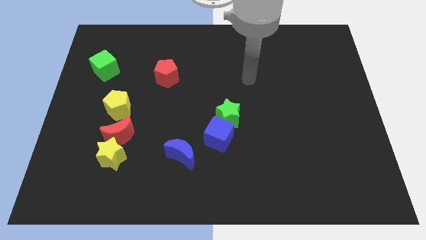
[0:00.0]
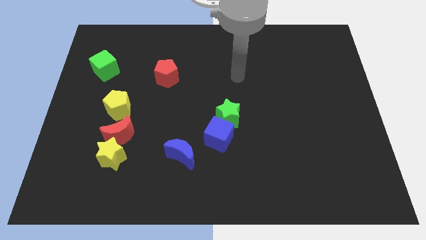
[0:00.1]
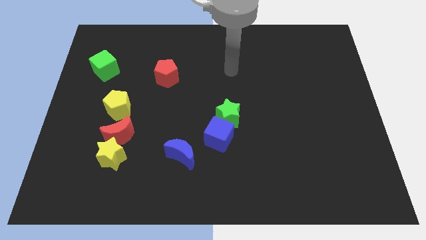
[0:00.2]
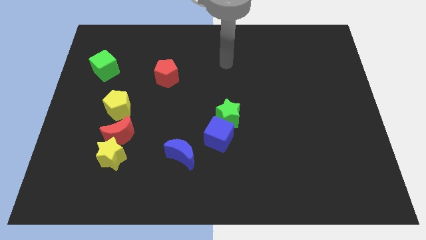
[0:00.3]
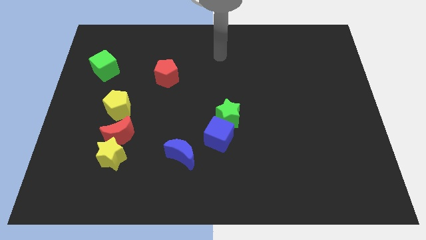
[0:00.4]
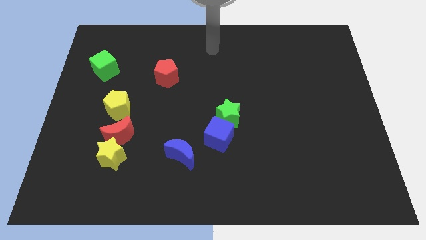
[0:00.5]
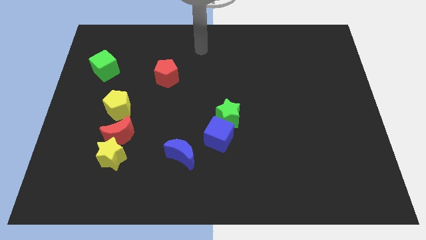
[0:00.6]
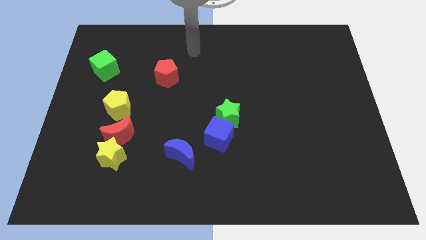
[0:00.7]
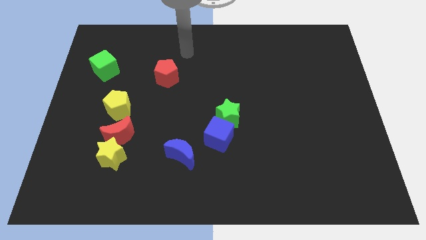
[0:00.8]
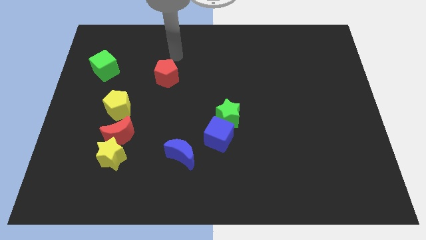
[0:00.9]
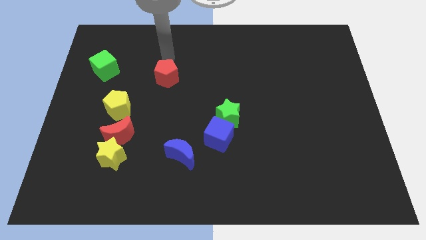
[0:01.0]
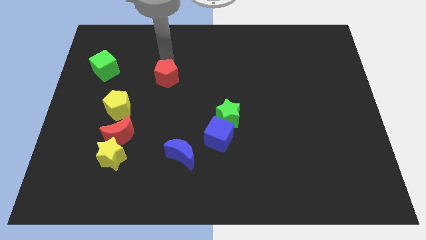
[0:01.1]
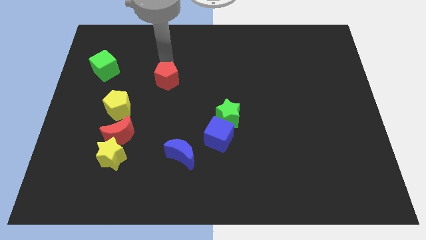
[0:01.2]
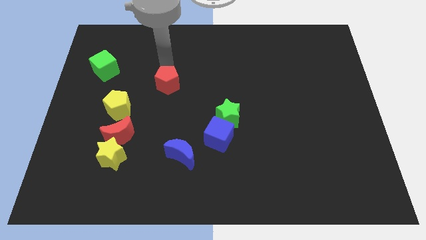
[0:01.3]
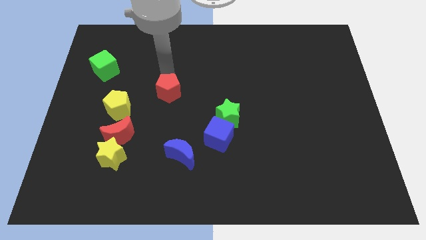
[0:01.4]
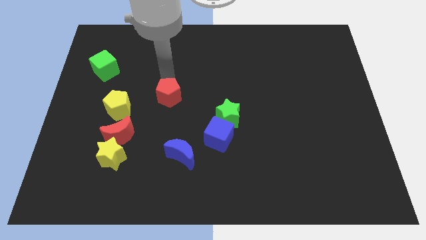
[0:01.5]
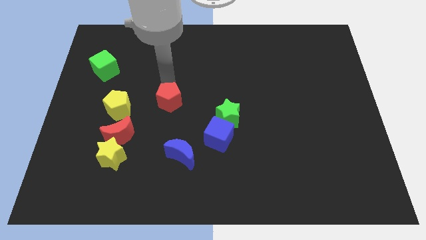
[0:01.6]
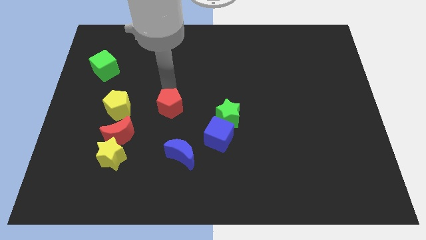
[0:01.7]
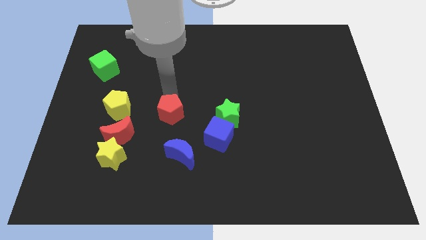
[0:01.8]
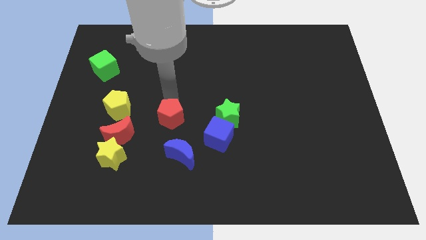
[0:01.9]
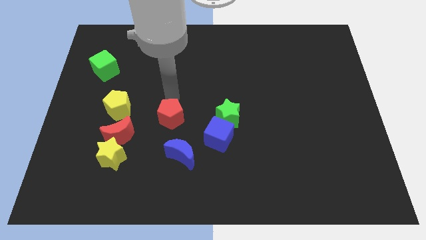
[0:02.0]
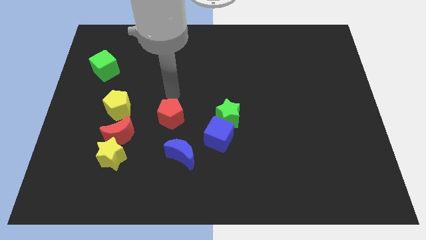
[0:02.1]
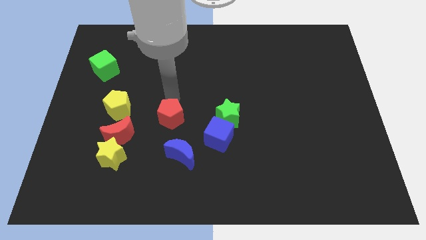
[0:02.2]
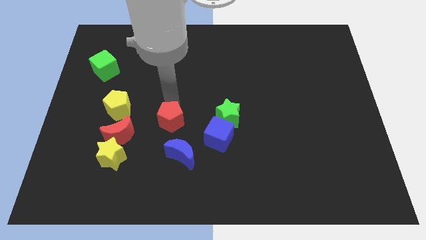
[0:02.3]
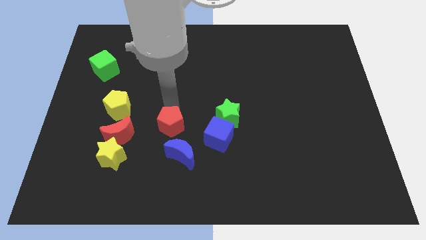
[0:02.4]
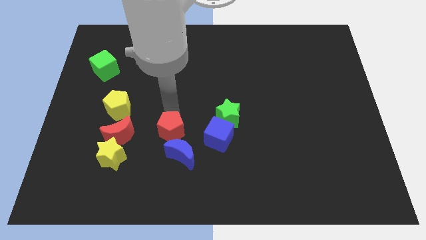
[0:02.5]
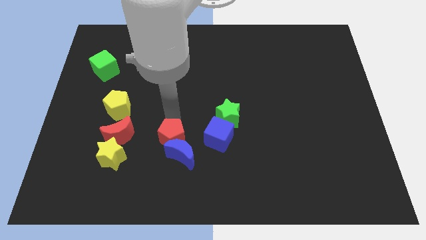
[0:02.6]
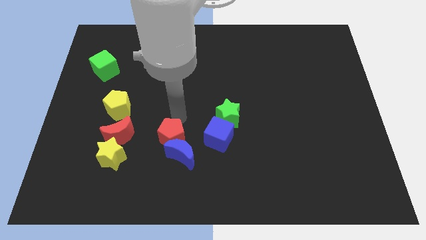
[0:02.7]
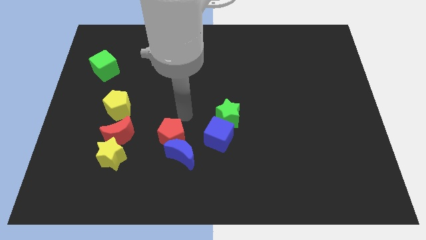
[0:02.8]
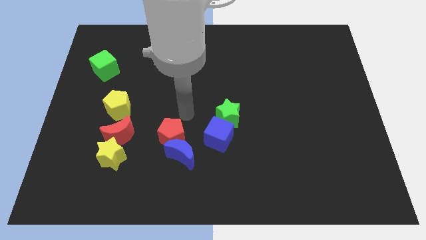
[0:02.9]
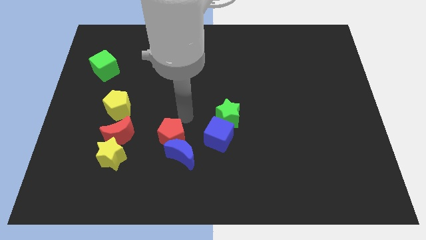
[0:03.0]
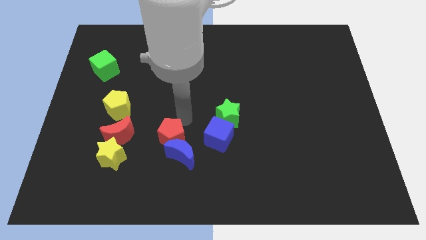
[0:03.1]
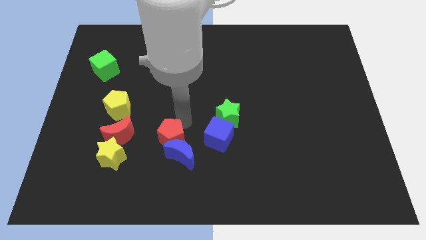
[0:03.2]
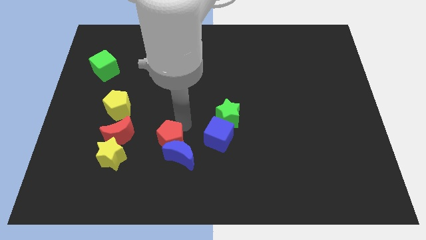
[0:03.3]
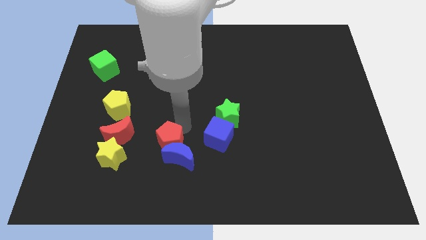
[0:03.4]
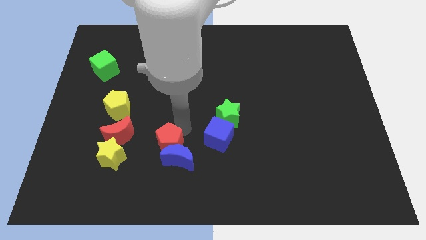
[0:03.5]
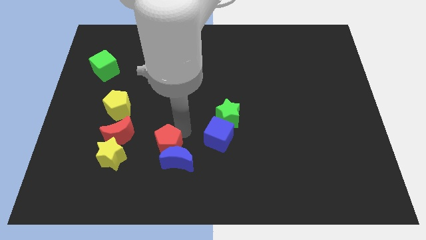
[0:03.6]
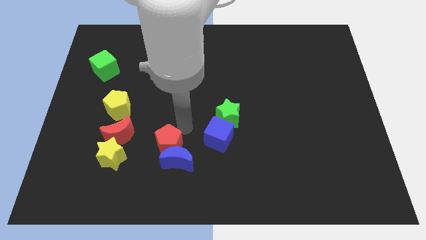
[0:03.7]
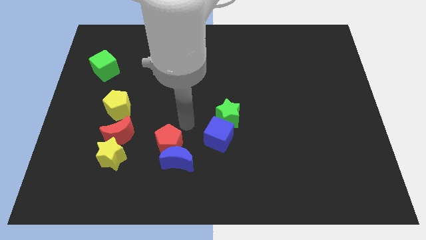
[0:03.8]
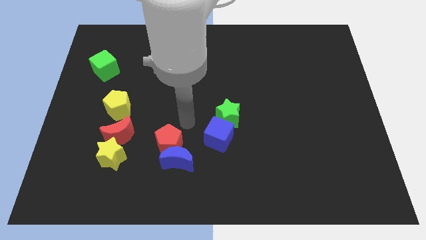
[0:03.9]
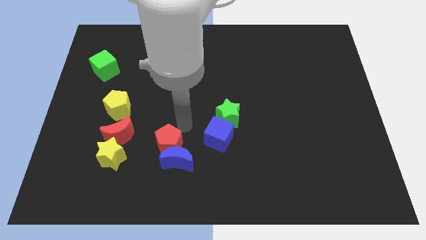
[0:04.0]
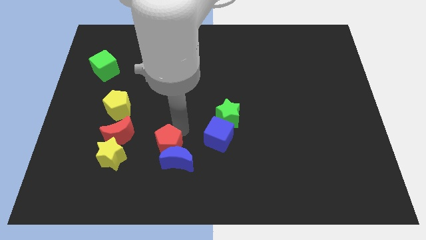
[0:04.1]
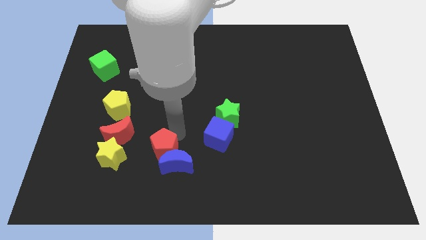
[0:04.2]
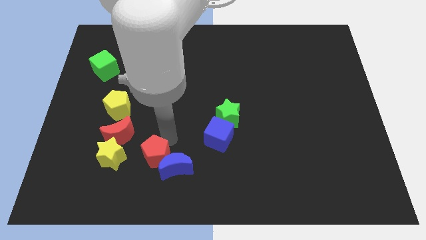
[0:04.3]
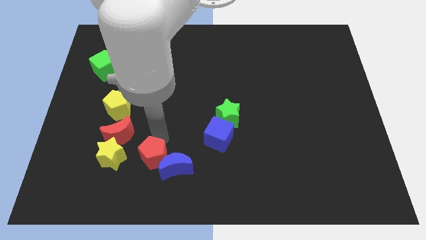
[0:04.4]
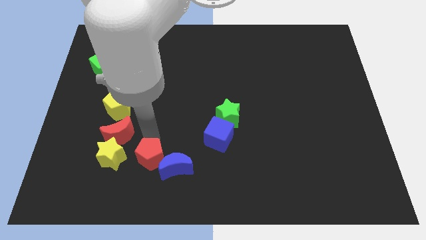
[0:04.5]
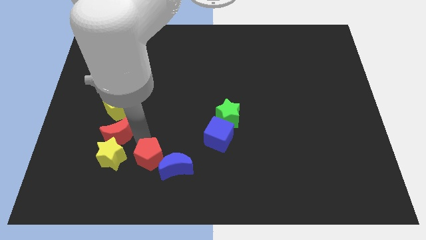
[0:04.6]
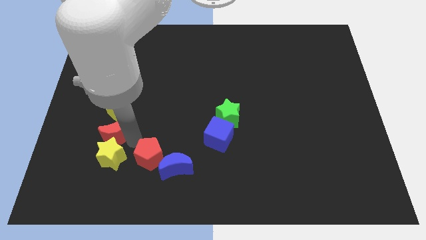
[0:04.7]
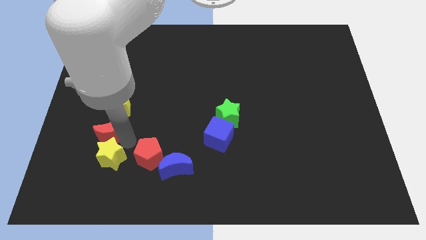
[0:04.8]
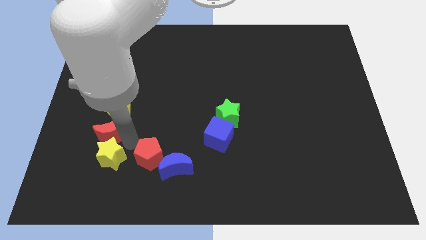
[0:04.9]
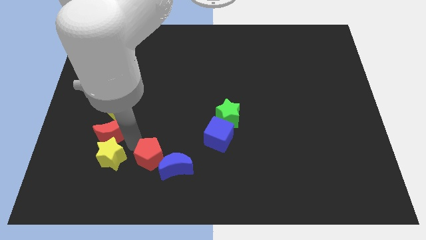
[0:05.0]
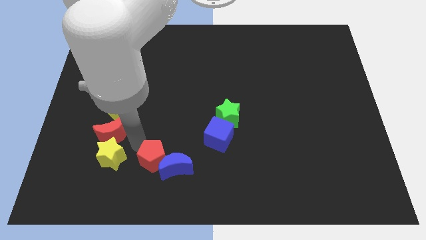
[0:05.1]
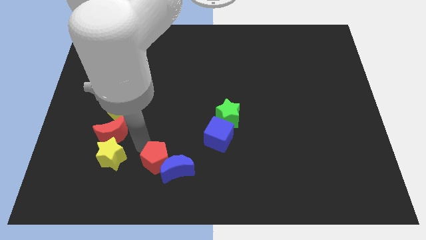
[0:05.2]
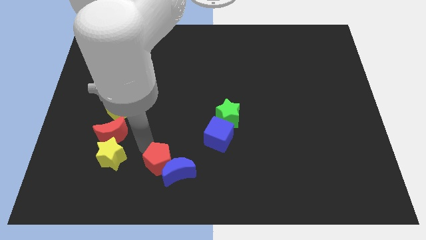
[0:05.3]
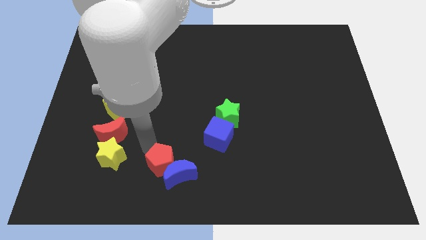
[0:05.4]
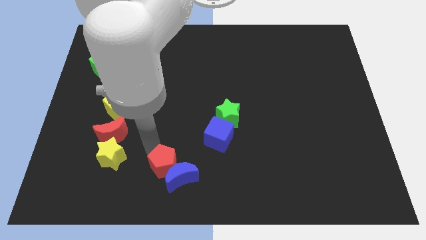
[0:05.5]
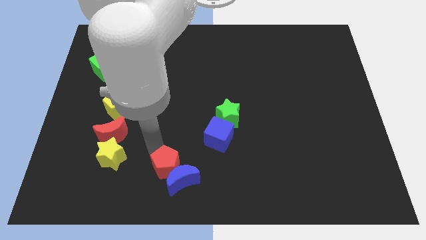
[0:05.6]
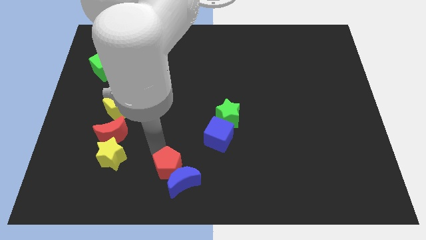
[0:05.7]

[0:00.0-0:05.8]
slide the red pentagon to the bottom side

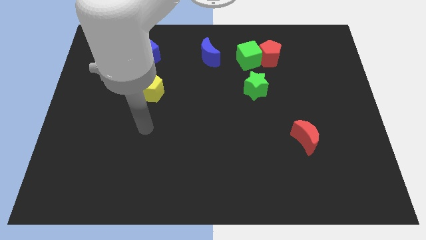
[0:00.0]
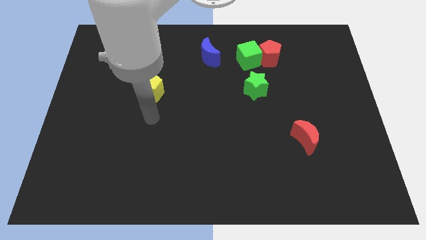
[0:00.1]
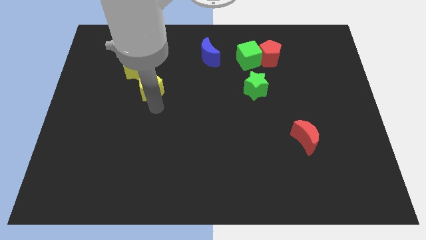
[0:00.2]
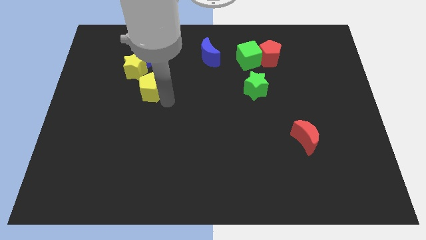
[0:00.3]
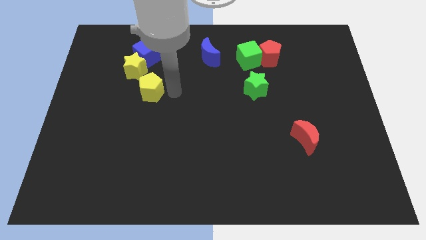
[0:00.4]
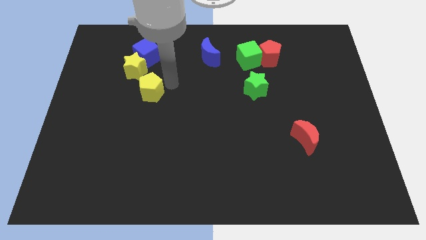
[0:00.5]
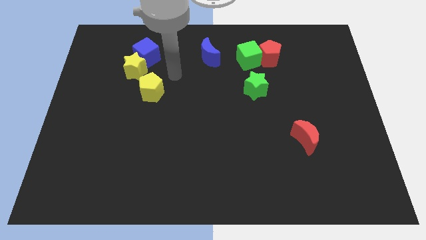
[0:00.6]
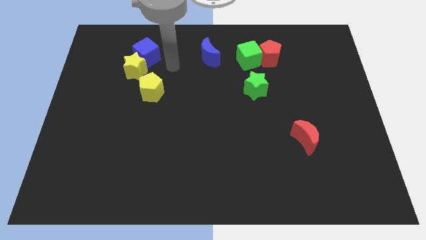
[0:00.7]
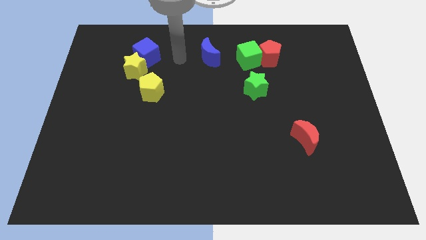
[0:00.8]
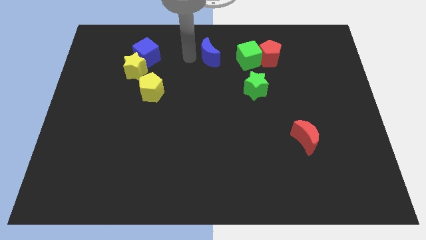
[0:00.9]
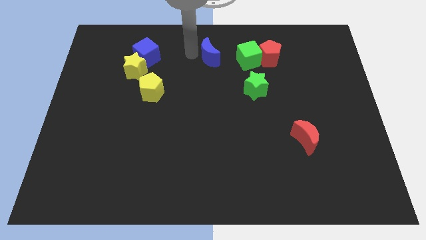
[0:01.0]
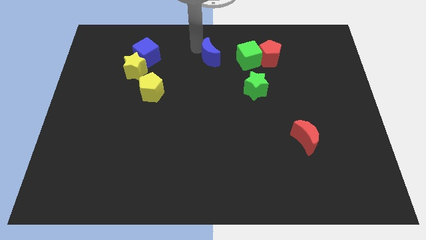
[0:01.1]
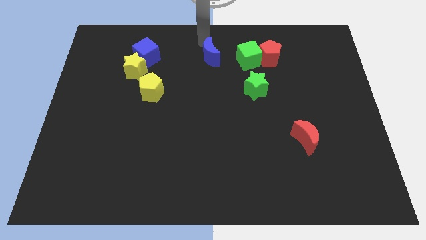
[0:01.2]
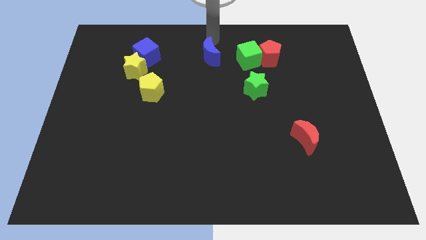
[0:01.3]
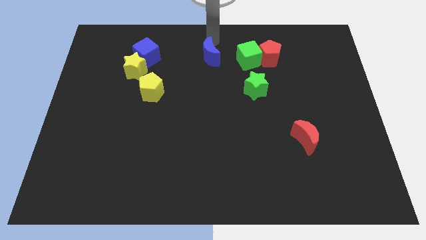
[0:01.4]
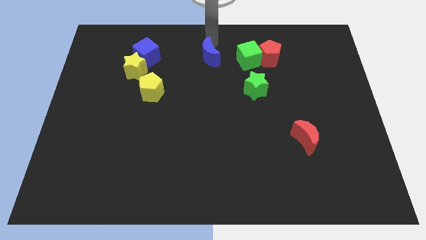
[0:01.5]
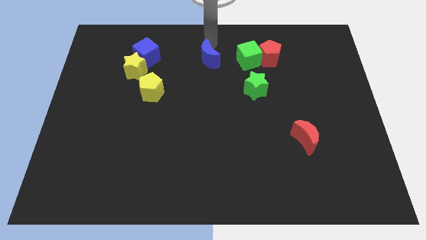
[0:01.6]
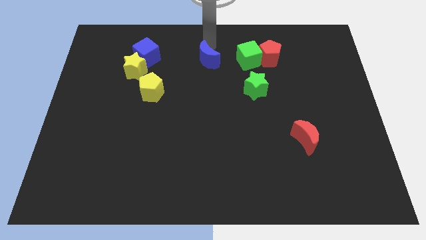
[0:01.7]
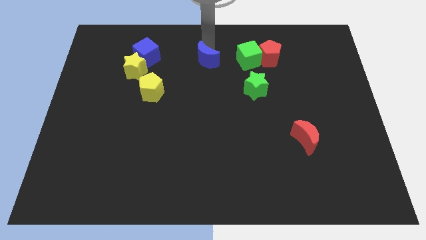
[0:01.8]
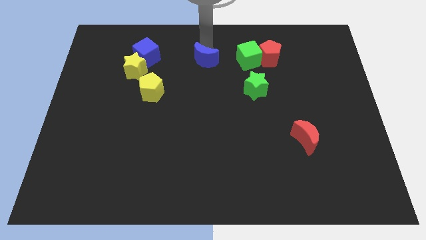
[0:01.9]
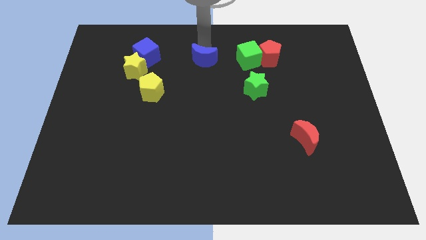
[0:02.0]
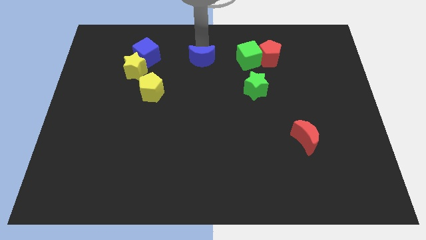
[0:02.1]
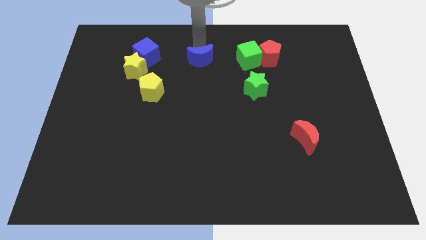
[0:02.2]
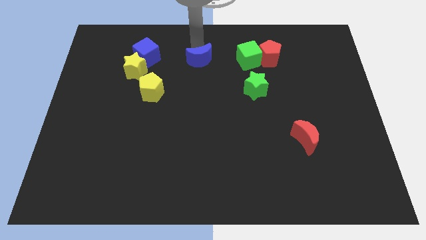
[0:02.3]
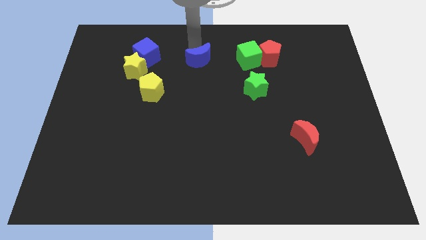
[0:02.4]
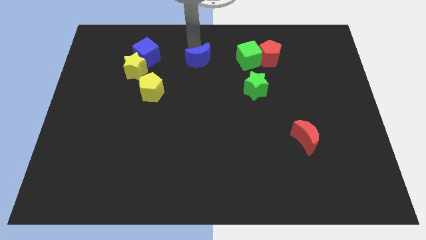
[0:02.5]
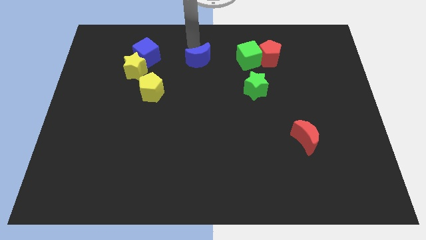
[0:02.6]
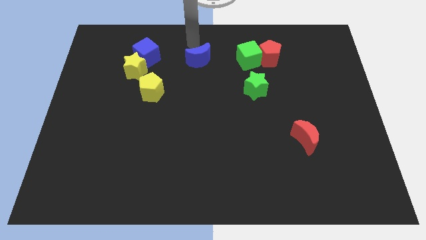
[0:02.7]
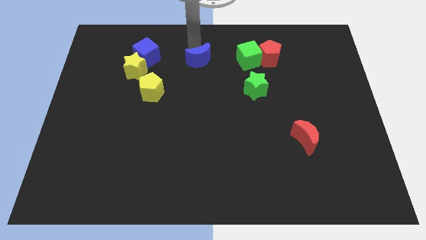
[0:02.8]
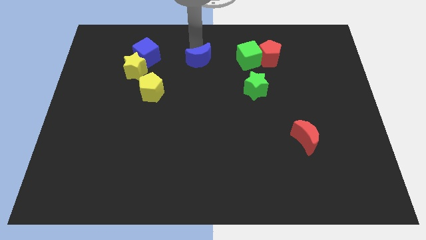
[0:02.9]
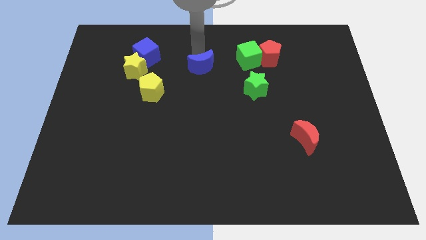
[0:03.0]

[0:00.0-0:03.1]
move the blue moon to the middle
